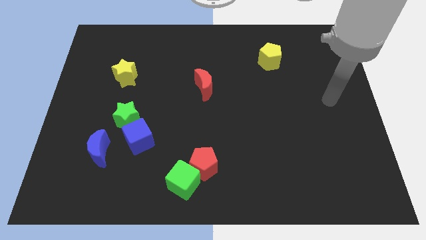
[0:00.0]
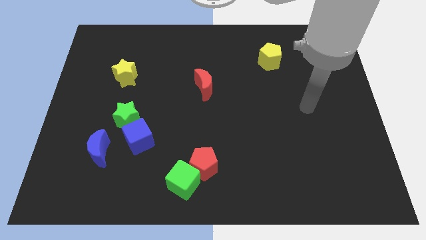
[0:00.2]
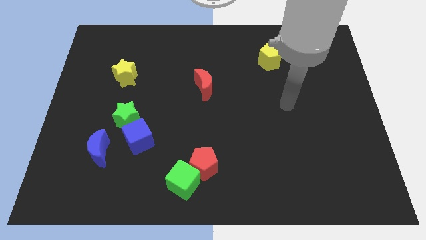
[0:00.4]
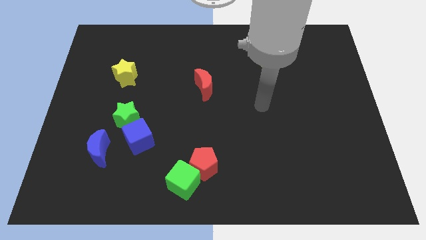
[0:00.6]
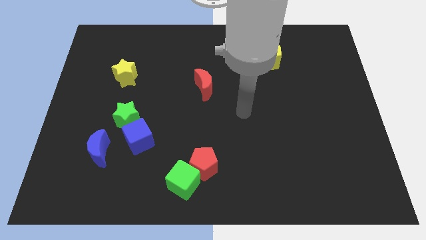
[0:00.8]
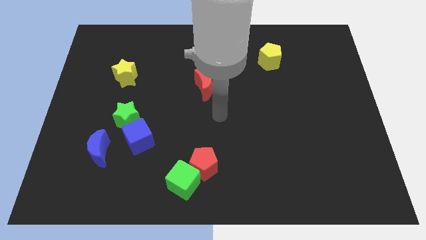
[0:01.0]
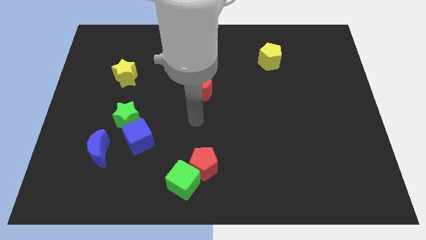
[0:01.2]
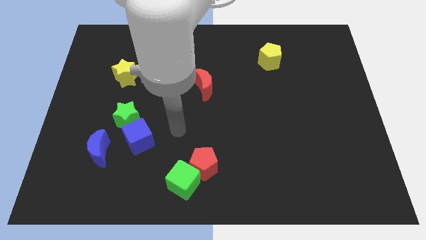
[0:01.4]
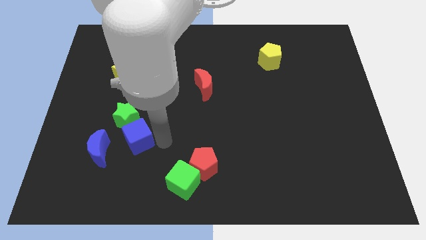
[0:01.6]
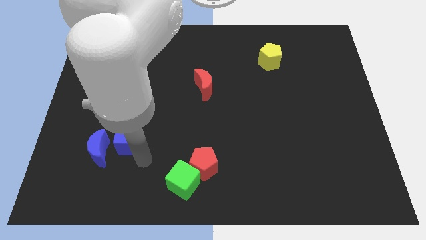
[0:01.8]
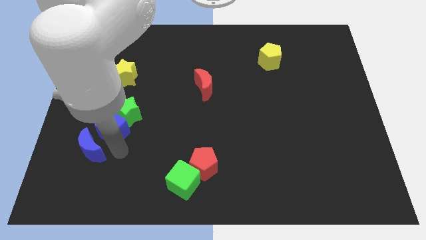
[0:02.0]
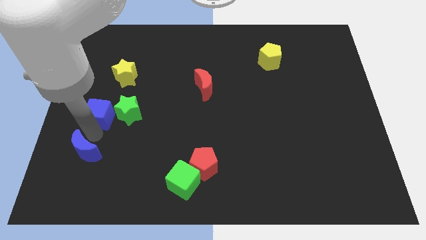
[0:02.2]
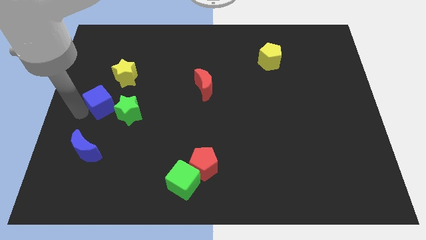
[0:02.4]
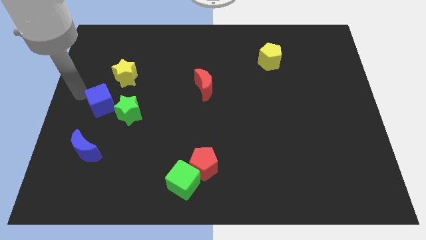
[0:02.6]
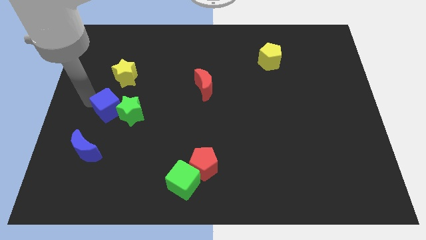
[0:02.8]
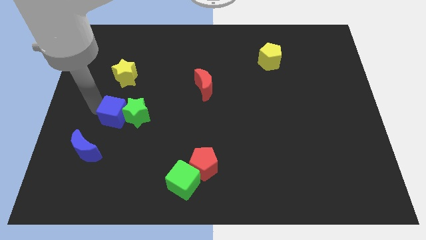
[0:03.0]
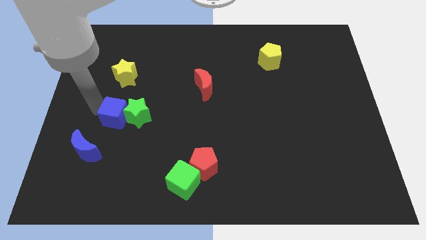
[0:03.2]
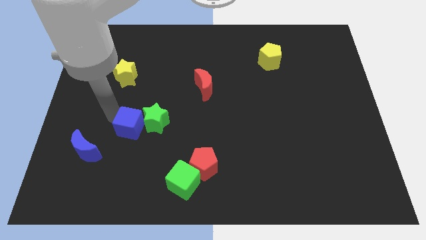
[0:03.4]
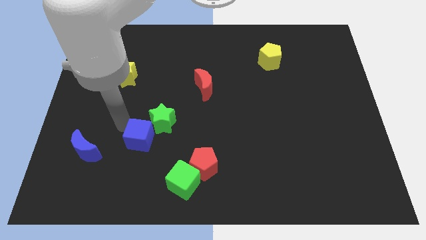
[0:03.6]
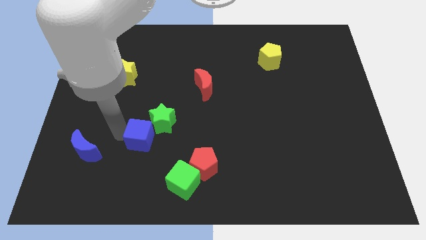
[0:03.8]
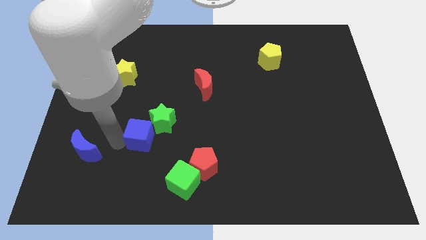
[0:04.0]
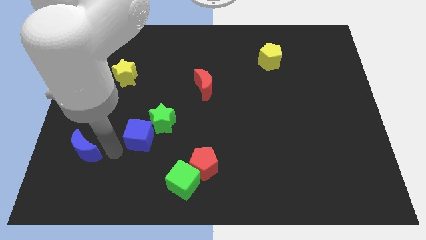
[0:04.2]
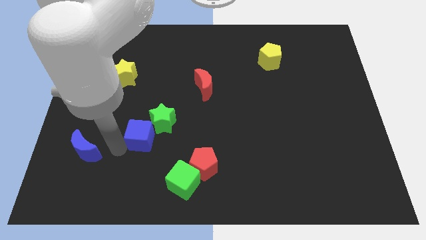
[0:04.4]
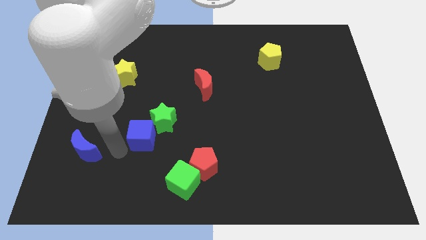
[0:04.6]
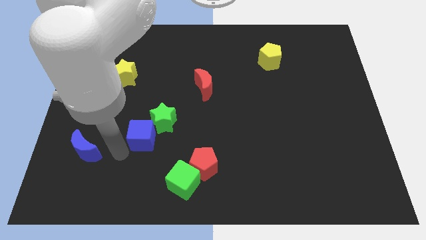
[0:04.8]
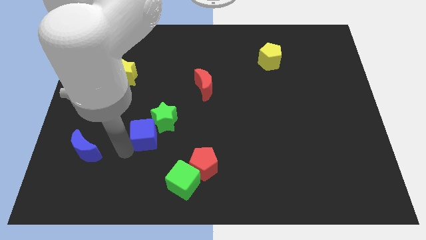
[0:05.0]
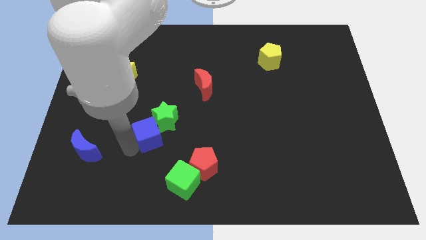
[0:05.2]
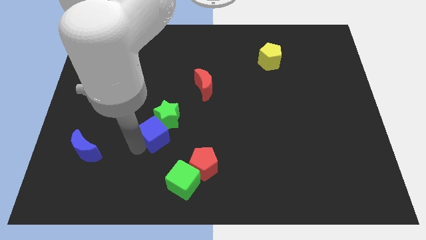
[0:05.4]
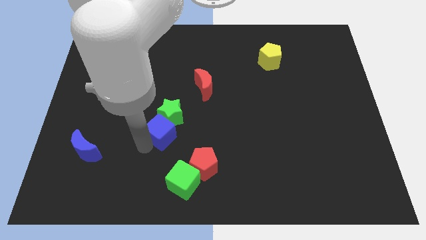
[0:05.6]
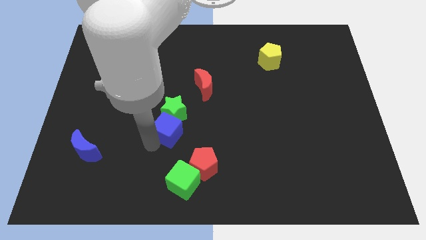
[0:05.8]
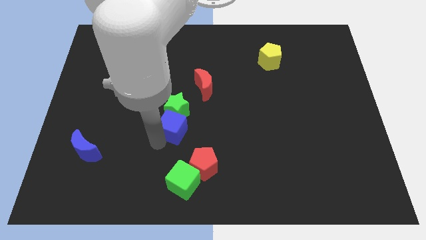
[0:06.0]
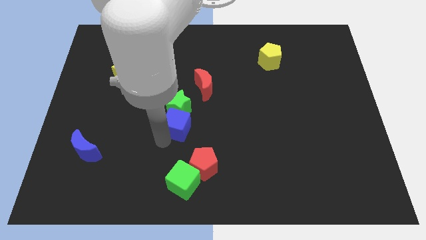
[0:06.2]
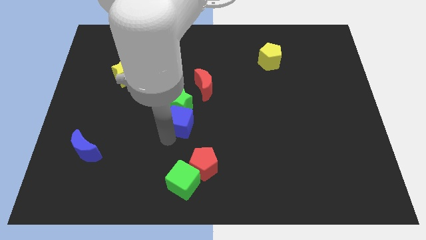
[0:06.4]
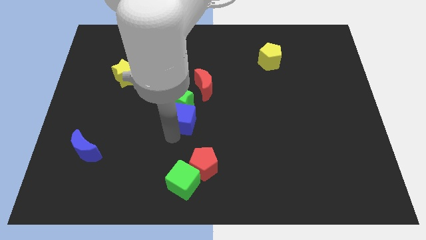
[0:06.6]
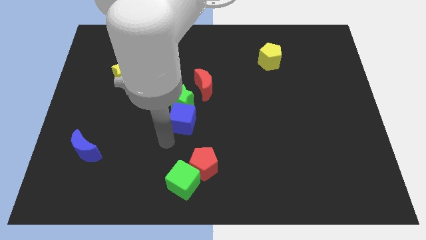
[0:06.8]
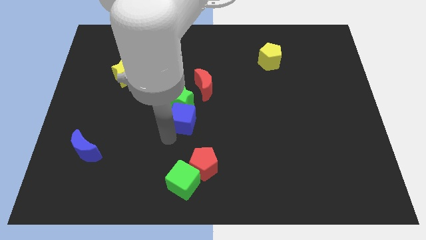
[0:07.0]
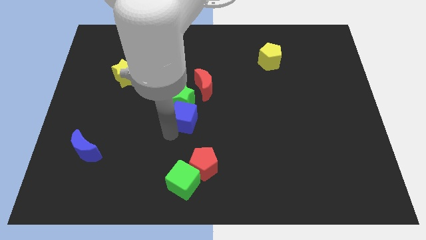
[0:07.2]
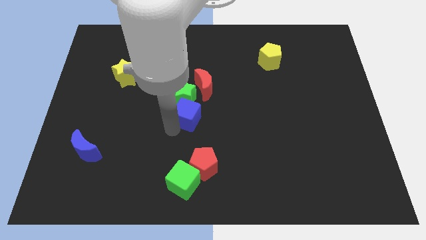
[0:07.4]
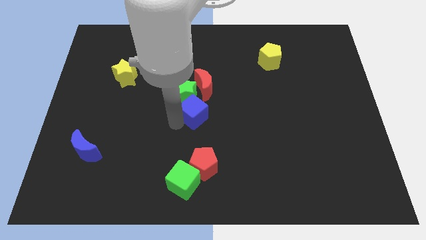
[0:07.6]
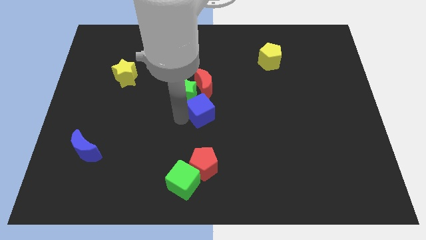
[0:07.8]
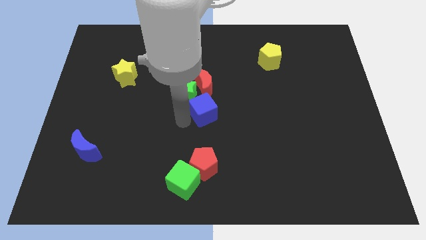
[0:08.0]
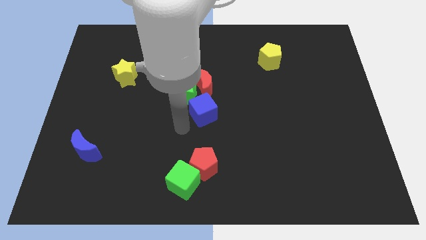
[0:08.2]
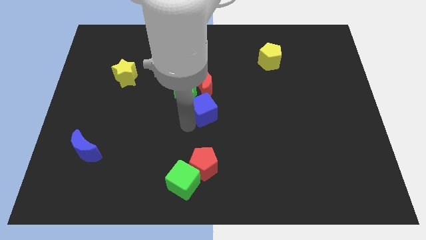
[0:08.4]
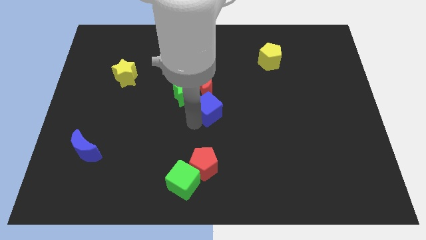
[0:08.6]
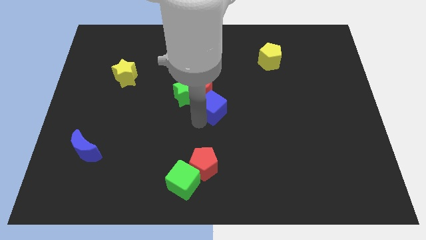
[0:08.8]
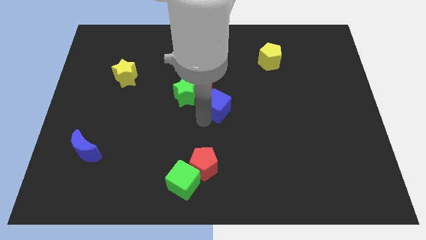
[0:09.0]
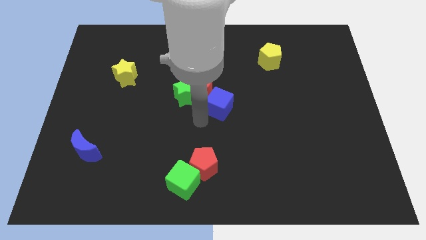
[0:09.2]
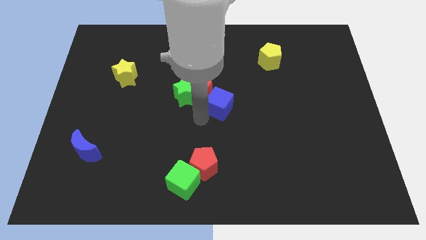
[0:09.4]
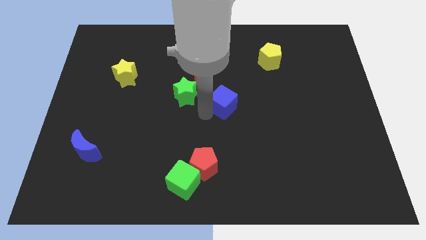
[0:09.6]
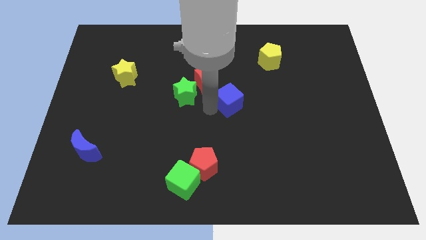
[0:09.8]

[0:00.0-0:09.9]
push the blue cube to the right side of the red moon

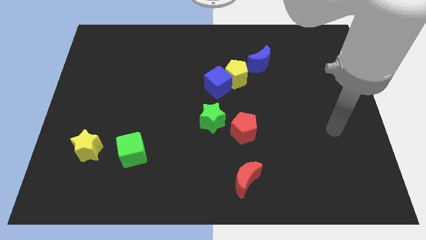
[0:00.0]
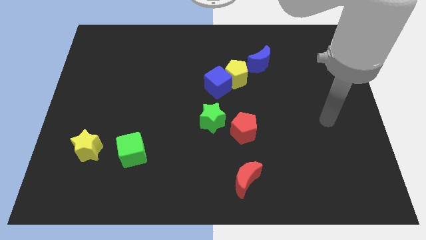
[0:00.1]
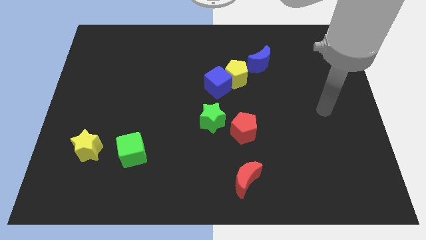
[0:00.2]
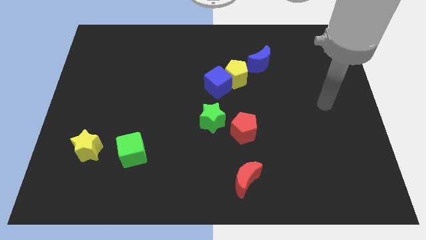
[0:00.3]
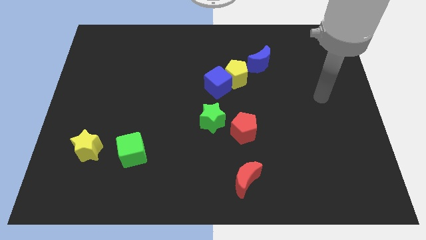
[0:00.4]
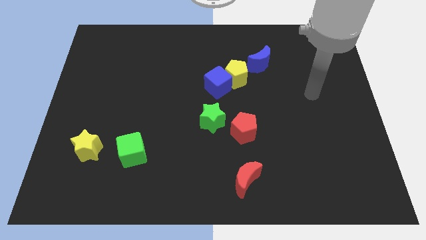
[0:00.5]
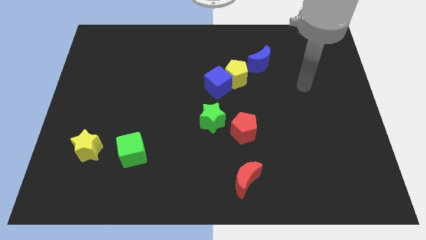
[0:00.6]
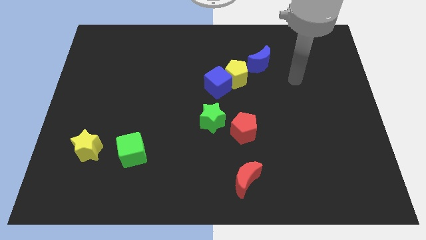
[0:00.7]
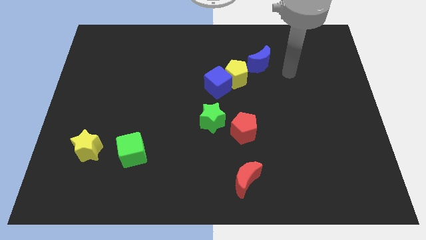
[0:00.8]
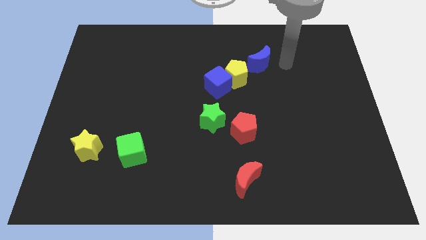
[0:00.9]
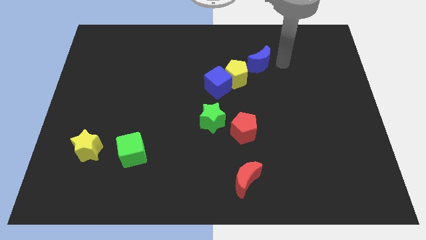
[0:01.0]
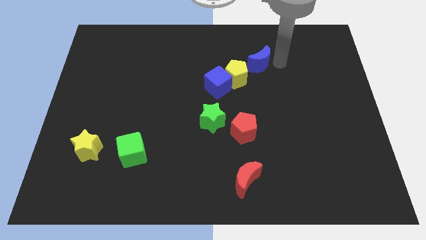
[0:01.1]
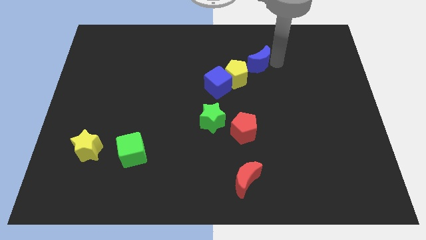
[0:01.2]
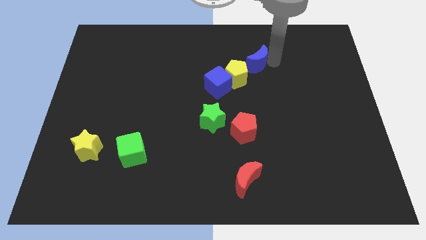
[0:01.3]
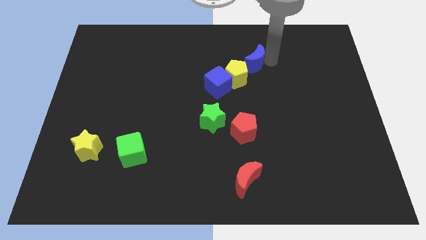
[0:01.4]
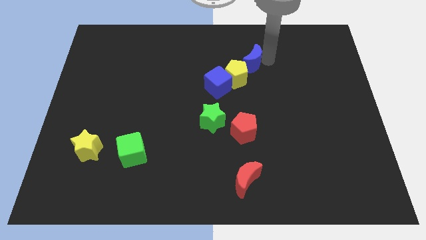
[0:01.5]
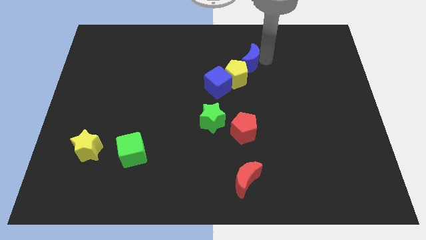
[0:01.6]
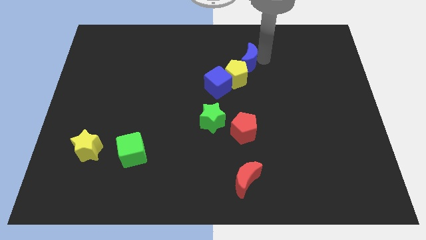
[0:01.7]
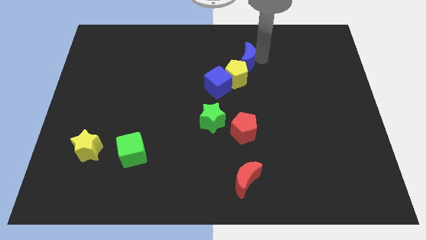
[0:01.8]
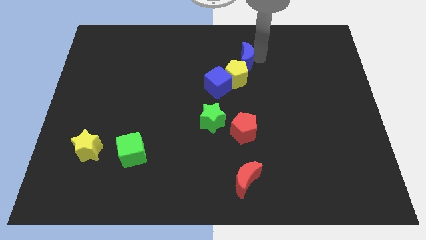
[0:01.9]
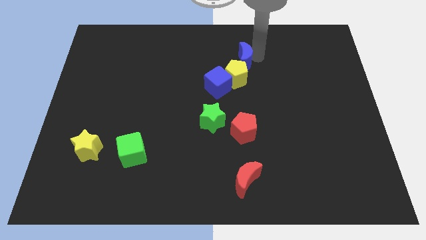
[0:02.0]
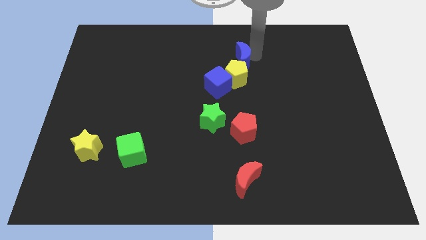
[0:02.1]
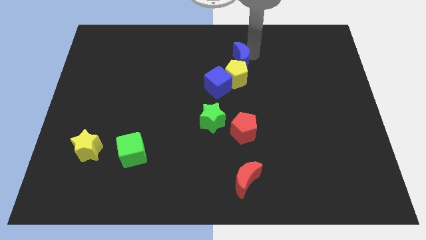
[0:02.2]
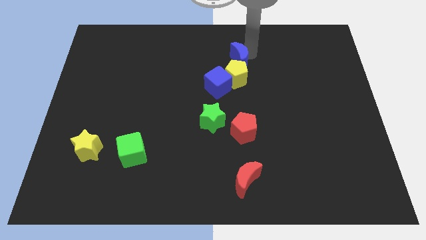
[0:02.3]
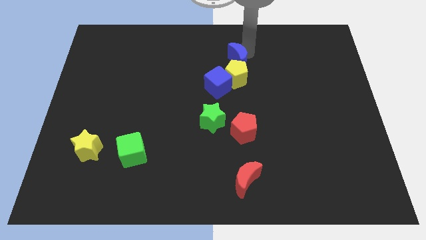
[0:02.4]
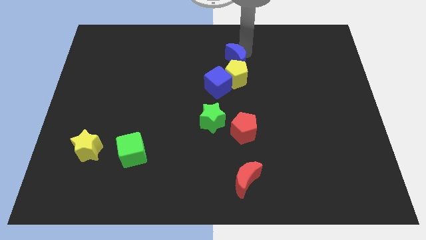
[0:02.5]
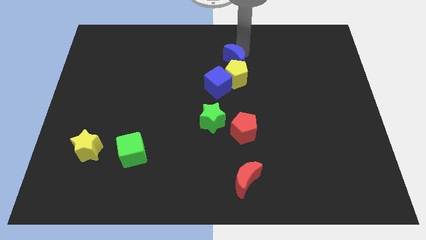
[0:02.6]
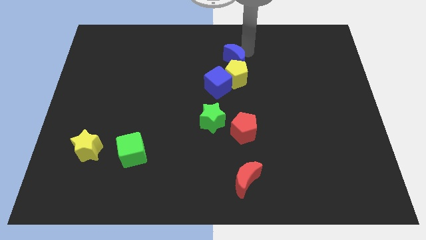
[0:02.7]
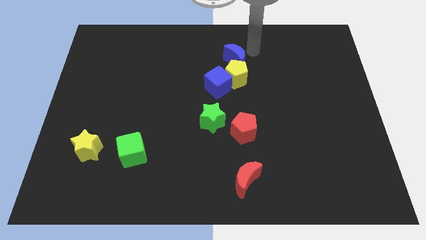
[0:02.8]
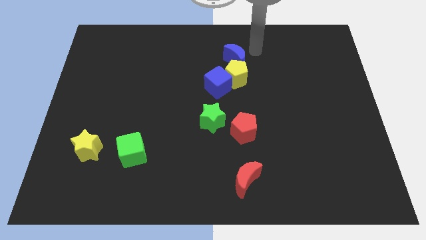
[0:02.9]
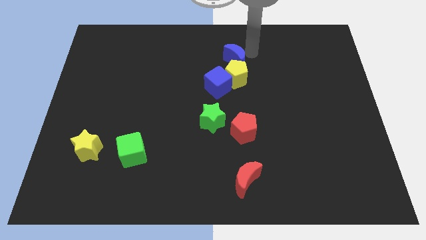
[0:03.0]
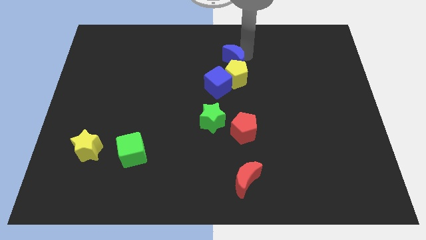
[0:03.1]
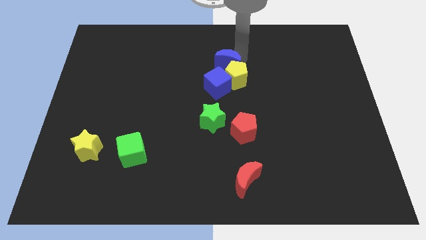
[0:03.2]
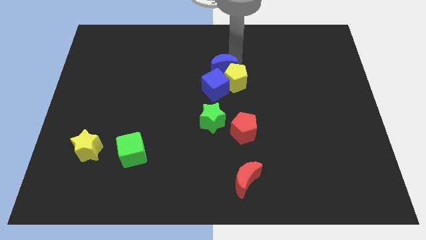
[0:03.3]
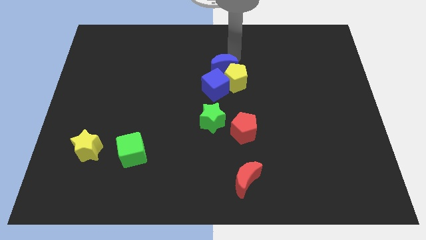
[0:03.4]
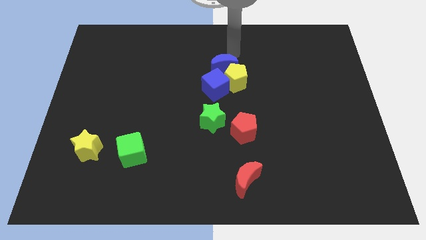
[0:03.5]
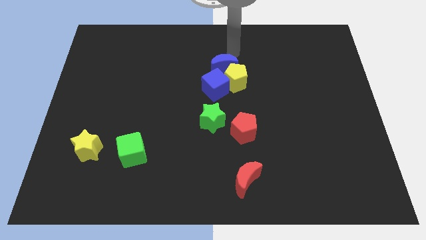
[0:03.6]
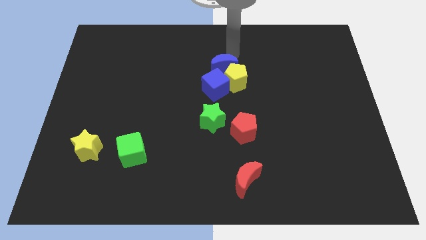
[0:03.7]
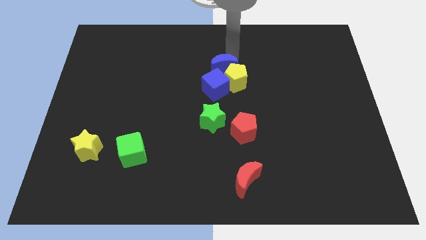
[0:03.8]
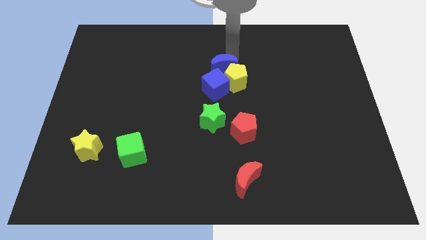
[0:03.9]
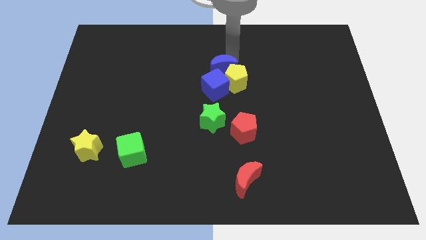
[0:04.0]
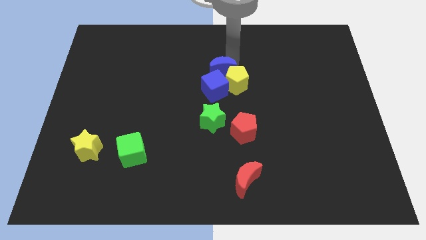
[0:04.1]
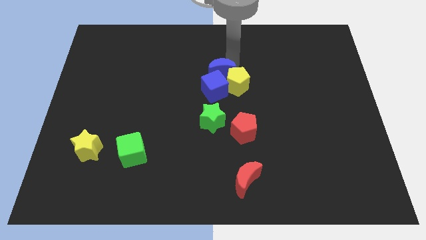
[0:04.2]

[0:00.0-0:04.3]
slide the blue moon to the top side of the green star
